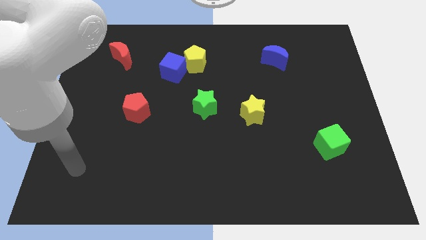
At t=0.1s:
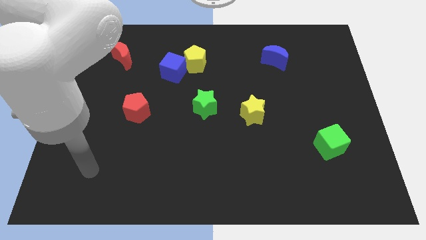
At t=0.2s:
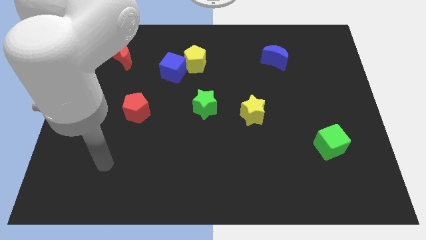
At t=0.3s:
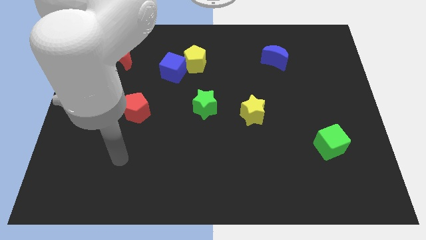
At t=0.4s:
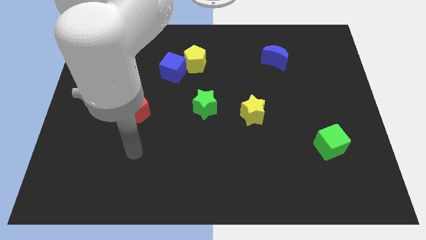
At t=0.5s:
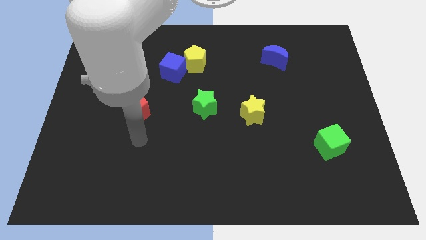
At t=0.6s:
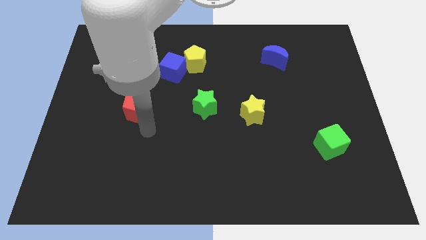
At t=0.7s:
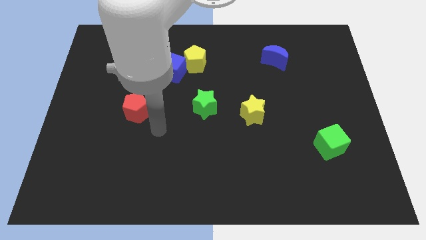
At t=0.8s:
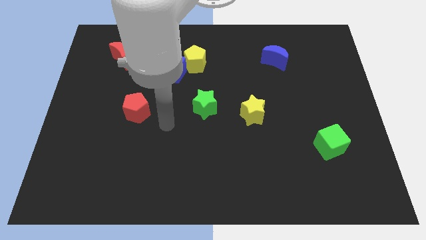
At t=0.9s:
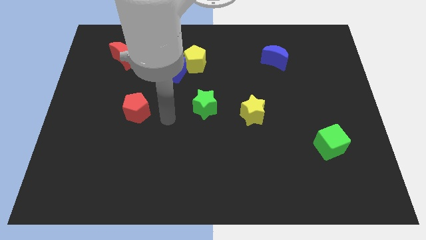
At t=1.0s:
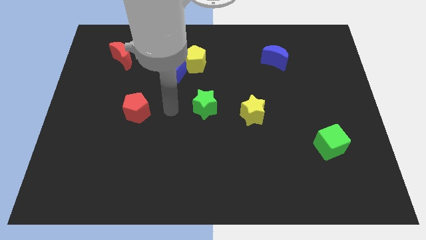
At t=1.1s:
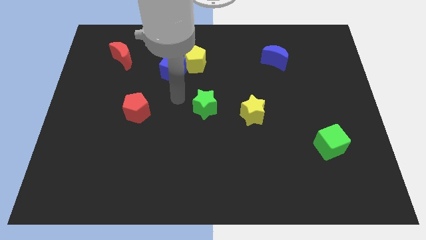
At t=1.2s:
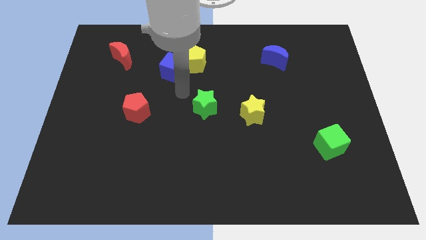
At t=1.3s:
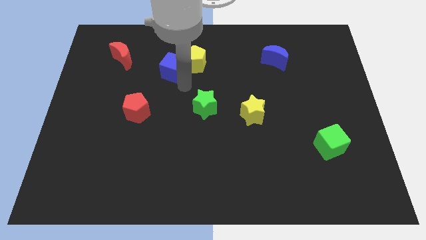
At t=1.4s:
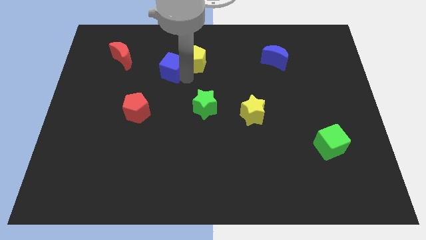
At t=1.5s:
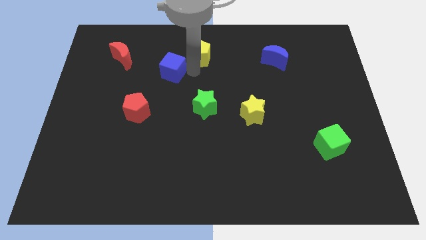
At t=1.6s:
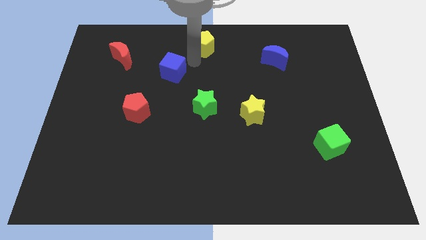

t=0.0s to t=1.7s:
pull the blue cube apart from the yellow pentagon

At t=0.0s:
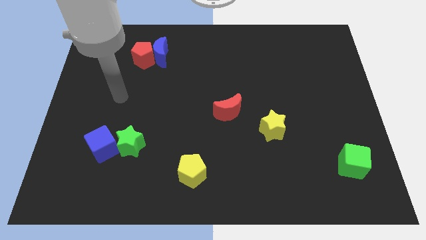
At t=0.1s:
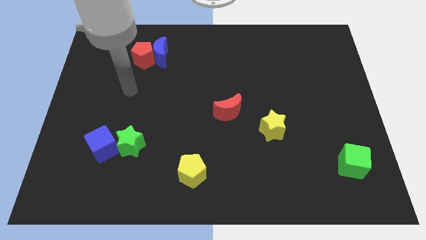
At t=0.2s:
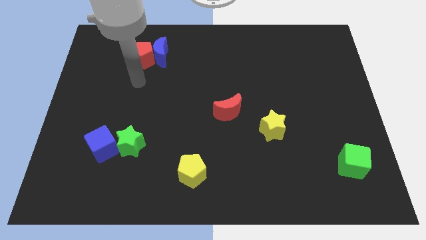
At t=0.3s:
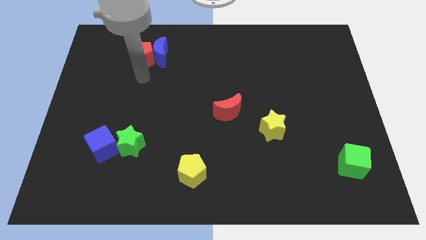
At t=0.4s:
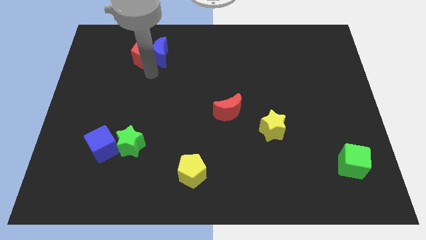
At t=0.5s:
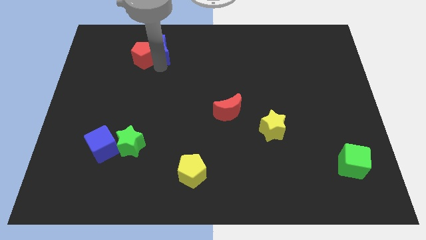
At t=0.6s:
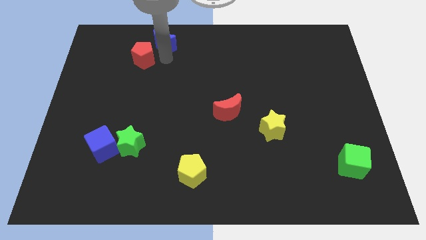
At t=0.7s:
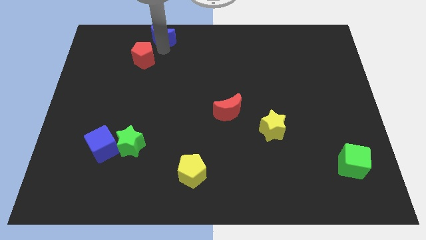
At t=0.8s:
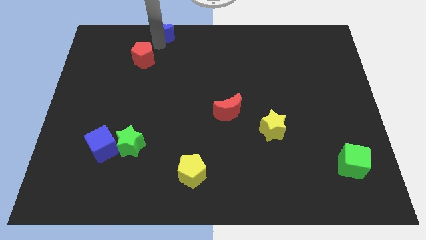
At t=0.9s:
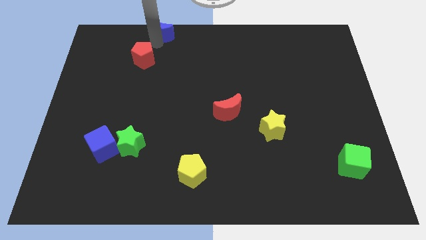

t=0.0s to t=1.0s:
move the red pentagon away from the blue moon

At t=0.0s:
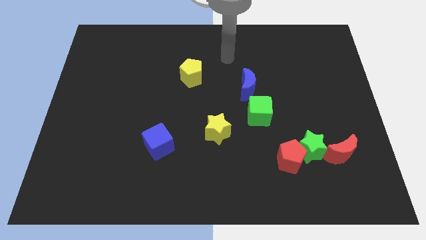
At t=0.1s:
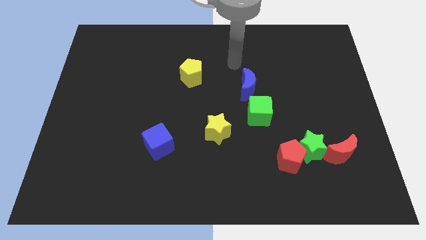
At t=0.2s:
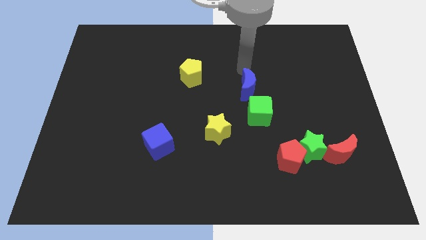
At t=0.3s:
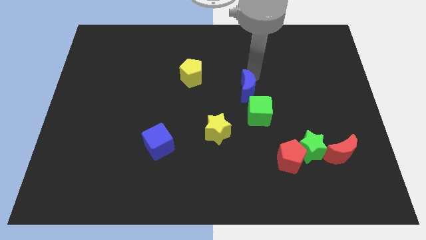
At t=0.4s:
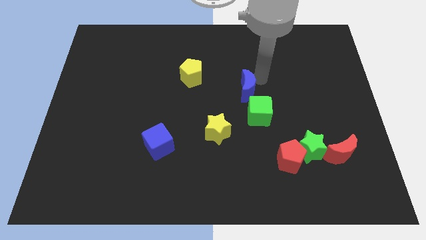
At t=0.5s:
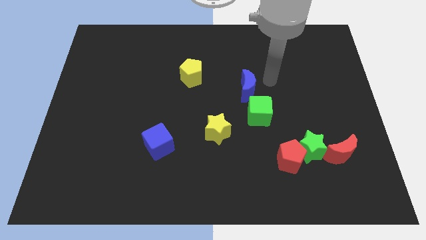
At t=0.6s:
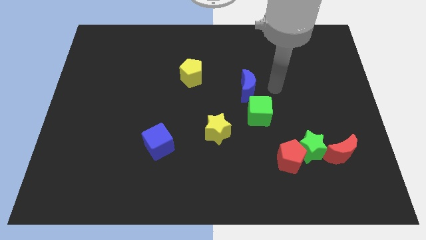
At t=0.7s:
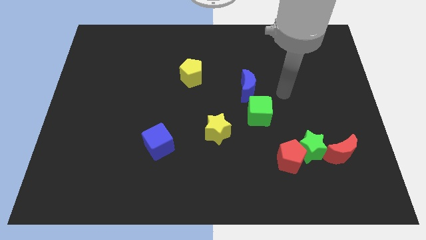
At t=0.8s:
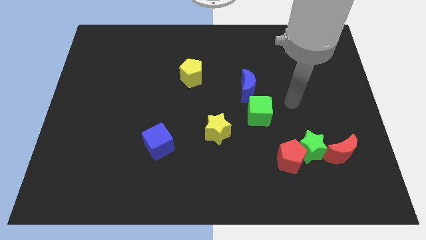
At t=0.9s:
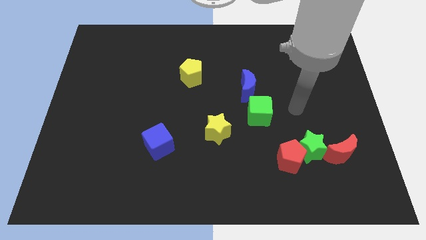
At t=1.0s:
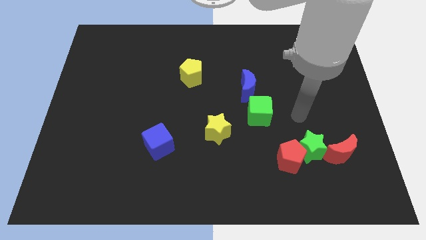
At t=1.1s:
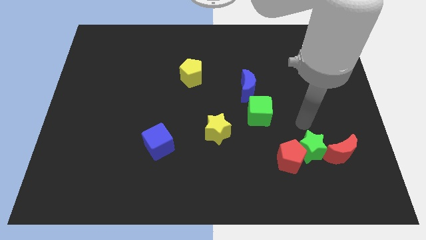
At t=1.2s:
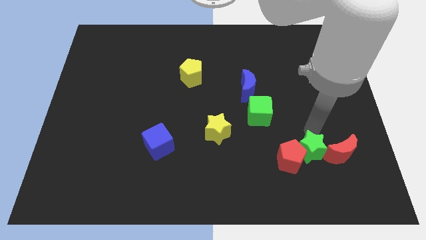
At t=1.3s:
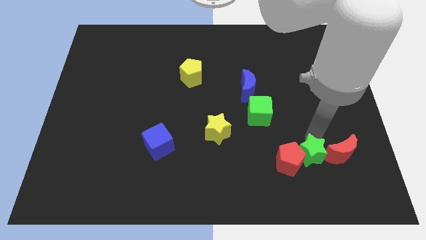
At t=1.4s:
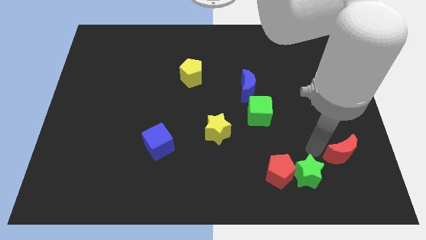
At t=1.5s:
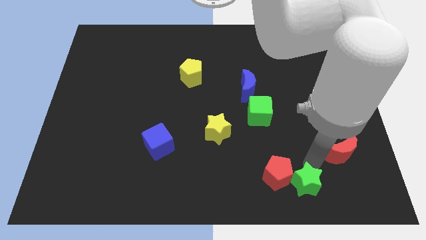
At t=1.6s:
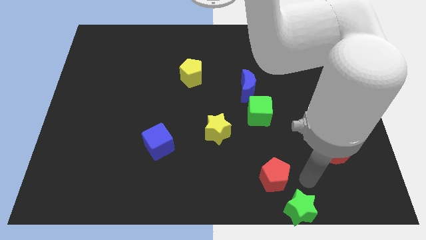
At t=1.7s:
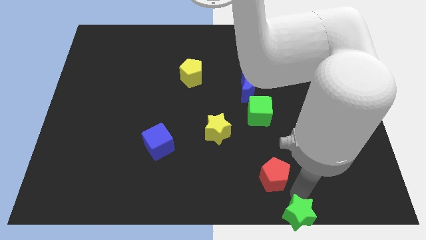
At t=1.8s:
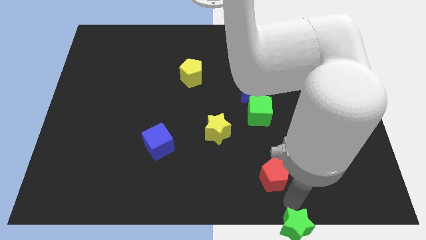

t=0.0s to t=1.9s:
pull the red pentagon apart from the green star

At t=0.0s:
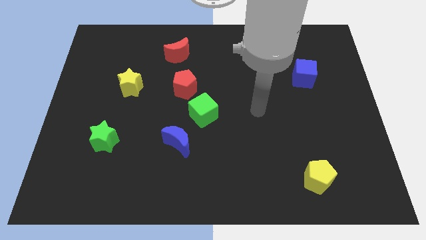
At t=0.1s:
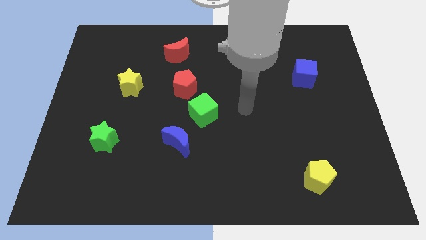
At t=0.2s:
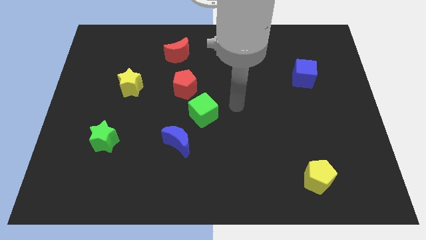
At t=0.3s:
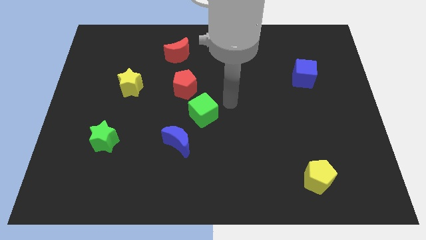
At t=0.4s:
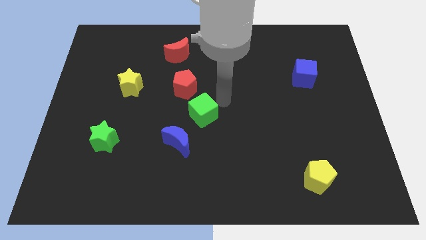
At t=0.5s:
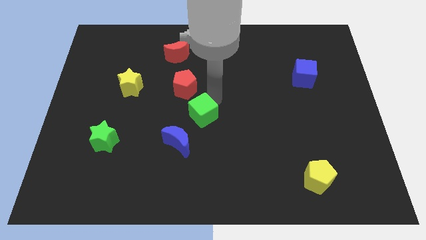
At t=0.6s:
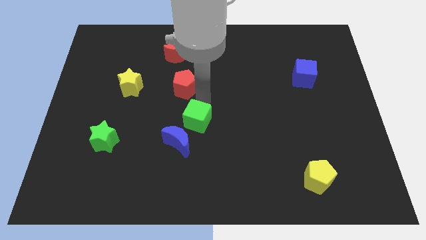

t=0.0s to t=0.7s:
separate the red pentagon from the green cube

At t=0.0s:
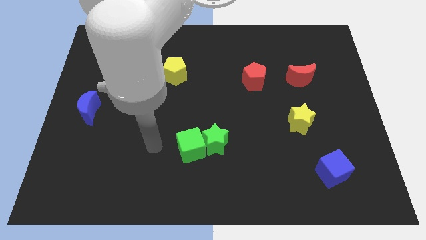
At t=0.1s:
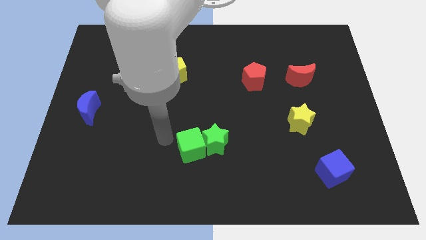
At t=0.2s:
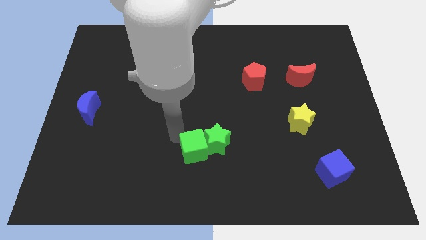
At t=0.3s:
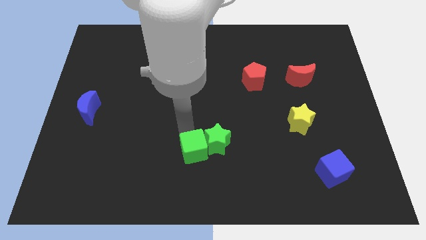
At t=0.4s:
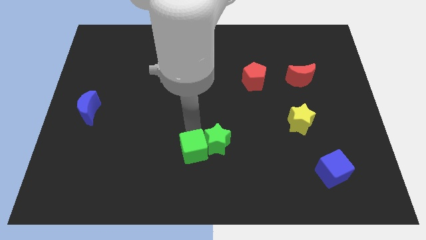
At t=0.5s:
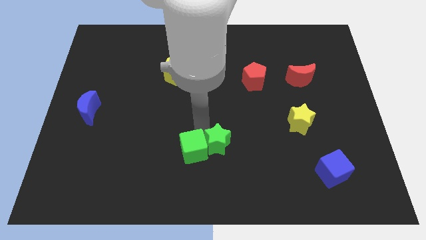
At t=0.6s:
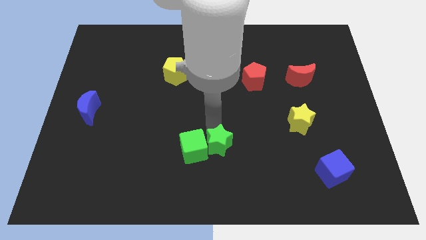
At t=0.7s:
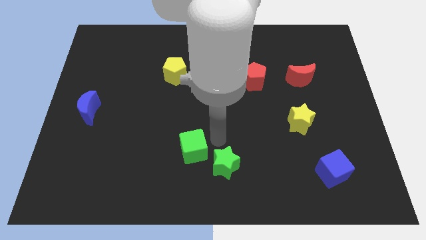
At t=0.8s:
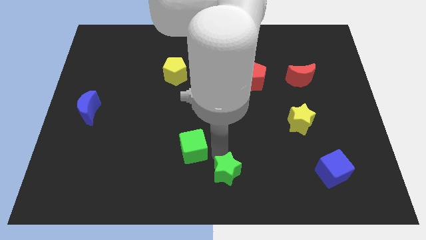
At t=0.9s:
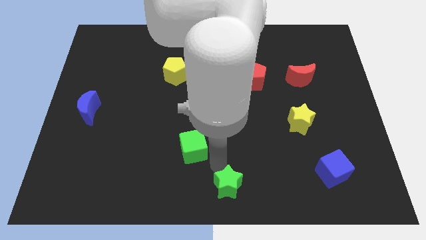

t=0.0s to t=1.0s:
separate the green cube from the green star

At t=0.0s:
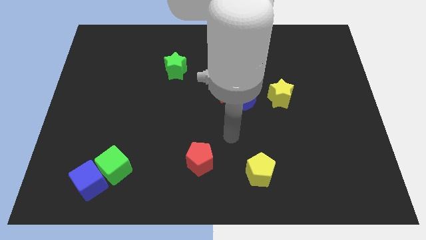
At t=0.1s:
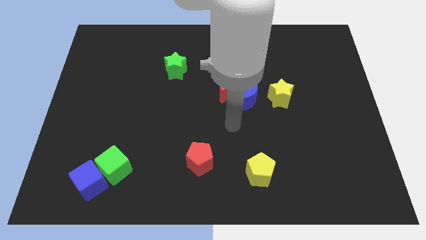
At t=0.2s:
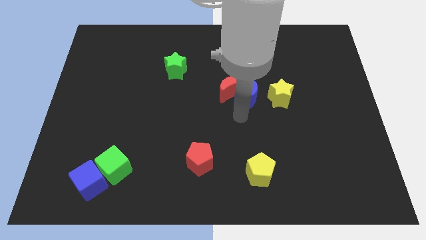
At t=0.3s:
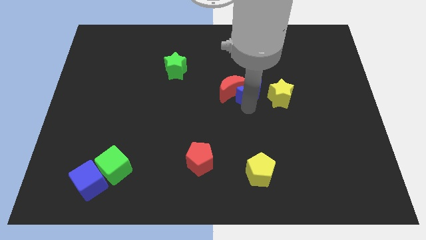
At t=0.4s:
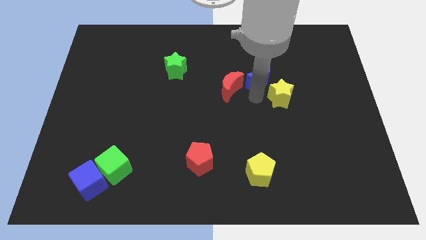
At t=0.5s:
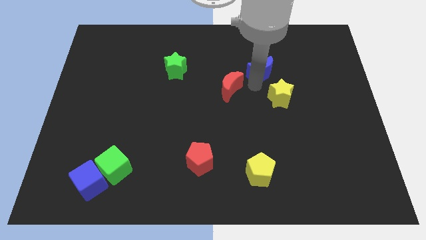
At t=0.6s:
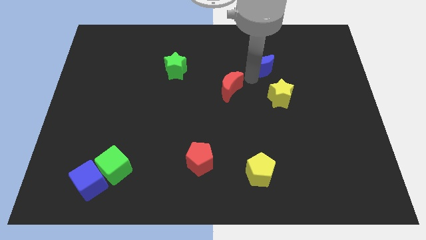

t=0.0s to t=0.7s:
separate the red moon from the blue moon

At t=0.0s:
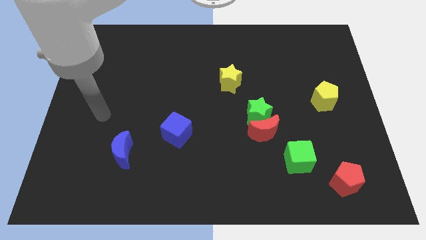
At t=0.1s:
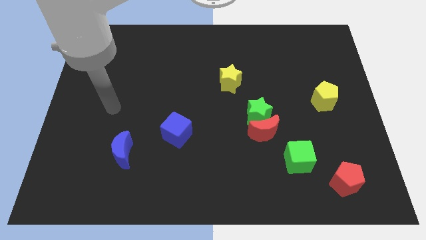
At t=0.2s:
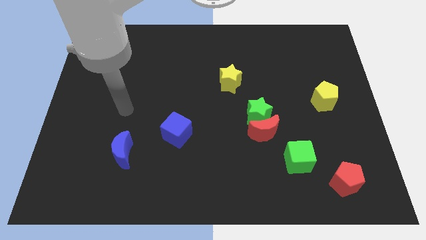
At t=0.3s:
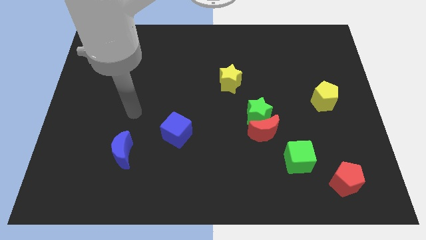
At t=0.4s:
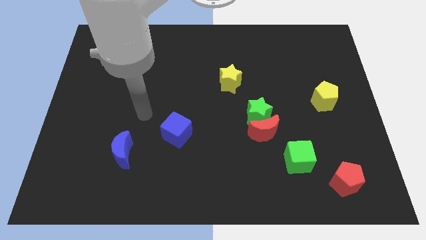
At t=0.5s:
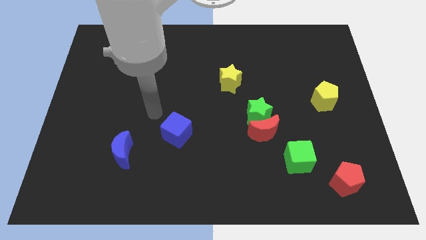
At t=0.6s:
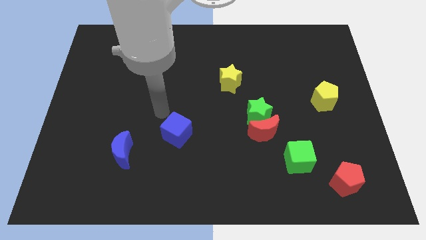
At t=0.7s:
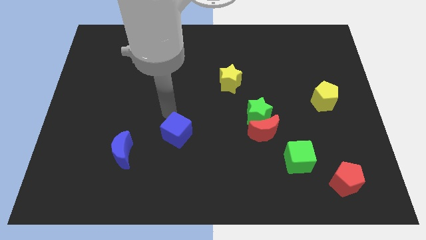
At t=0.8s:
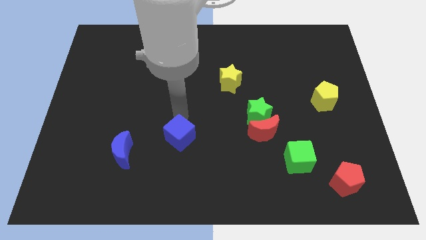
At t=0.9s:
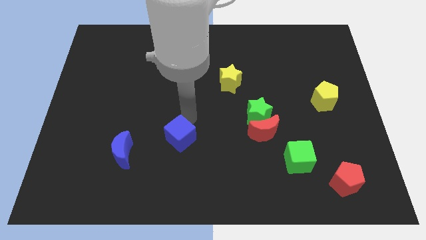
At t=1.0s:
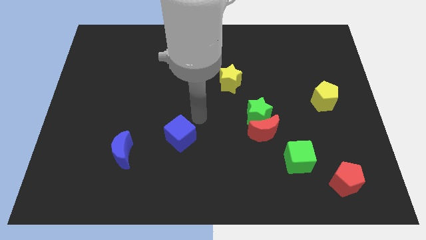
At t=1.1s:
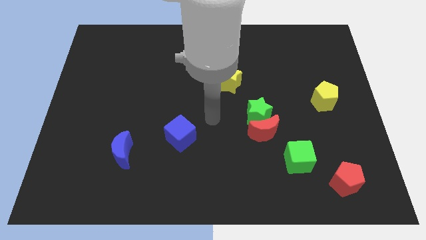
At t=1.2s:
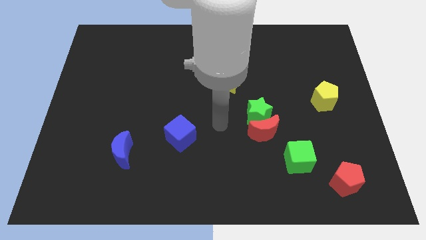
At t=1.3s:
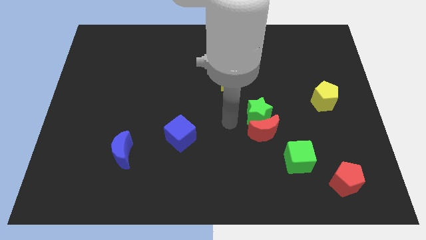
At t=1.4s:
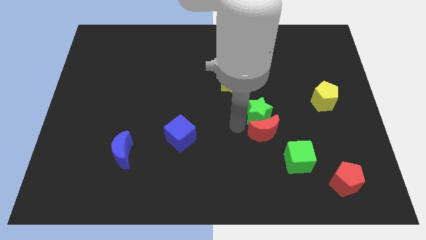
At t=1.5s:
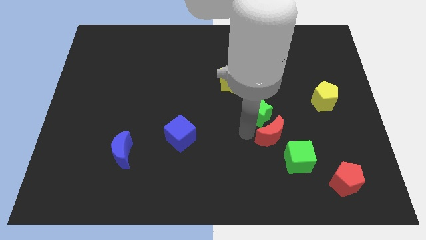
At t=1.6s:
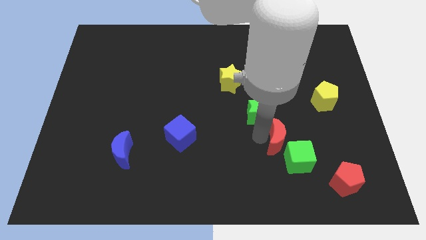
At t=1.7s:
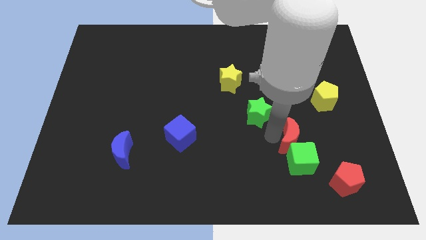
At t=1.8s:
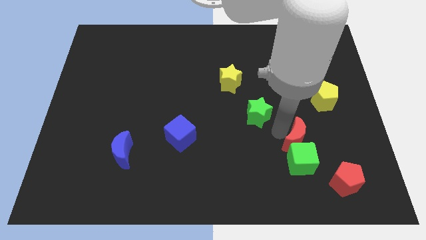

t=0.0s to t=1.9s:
move the green star away from the red moon

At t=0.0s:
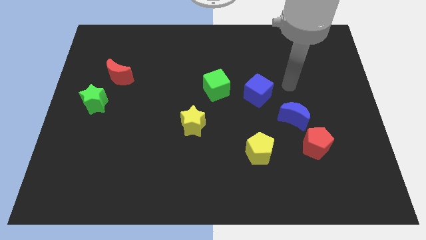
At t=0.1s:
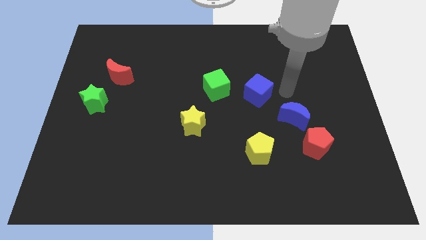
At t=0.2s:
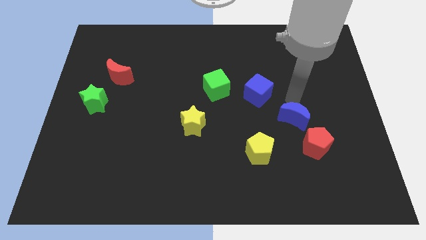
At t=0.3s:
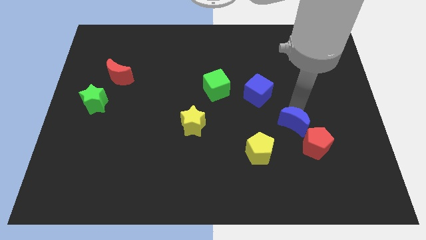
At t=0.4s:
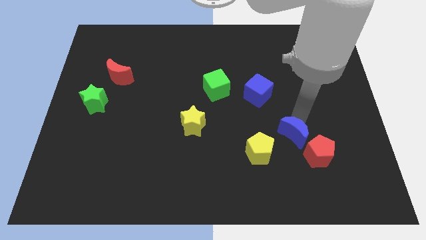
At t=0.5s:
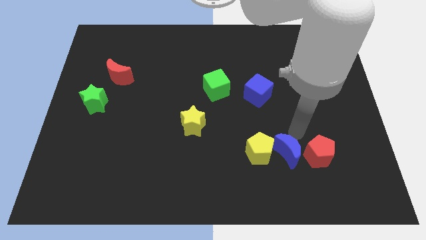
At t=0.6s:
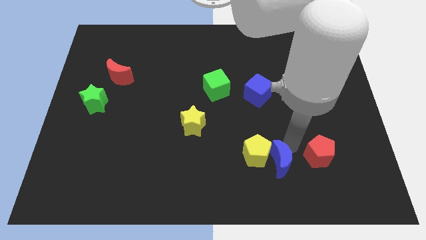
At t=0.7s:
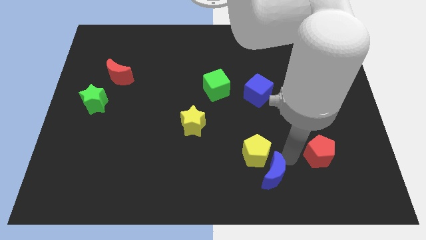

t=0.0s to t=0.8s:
pull the red pentagon apart from the blue moon
